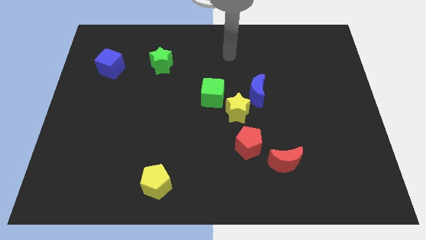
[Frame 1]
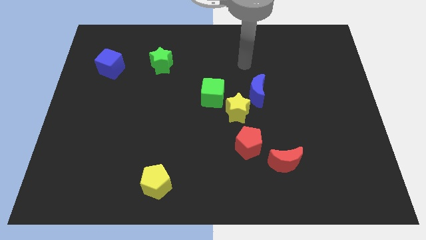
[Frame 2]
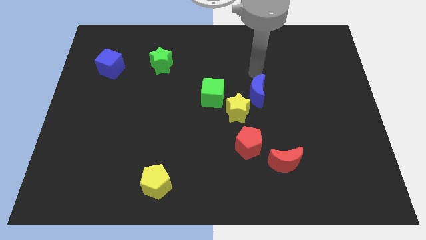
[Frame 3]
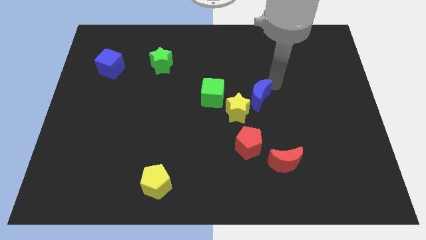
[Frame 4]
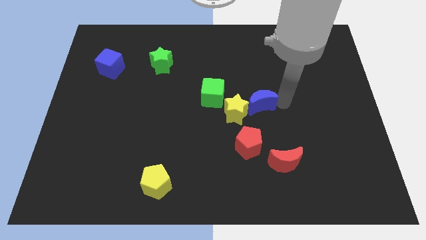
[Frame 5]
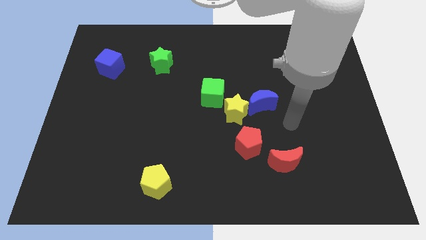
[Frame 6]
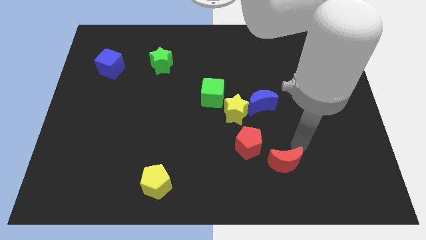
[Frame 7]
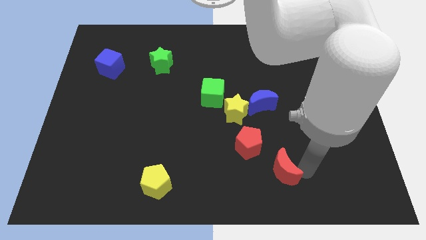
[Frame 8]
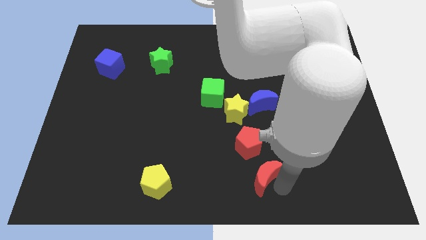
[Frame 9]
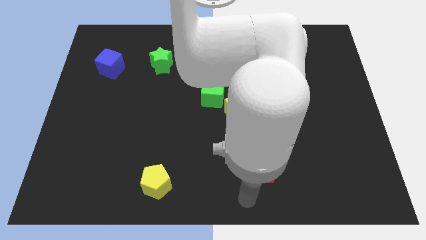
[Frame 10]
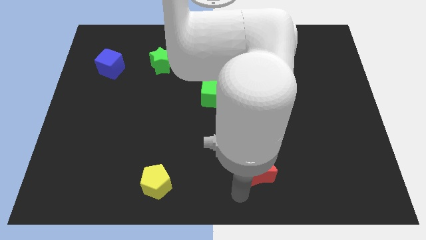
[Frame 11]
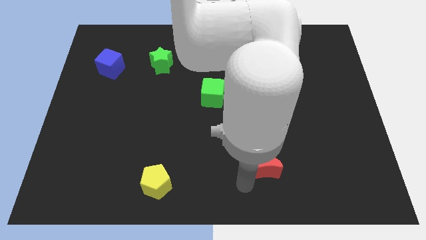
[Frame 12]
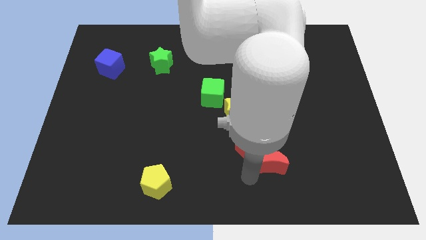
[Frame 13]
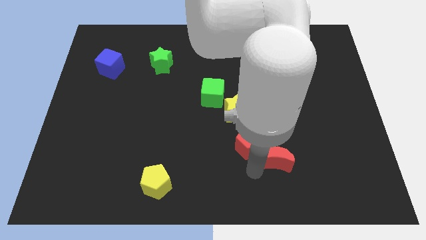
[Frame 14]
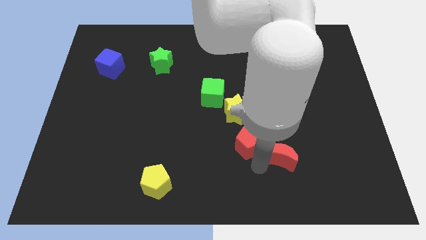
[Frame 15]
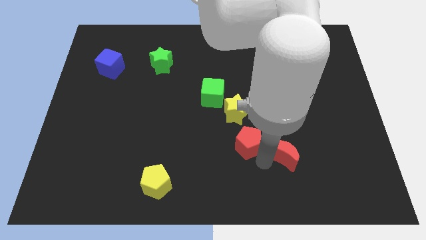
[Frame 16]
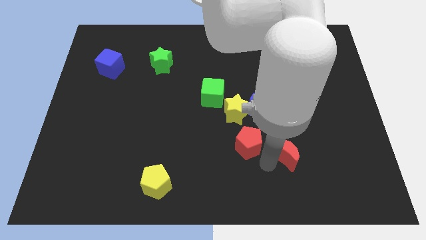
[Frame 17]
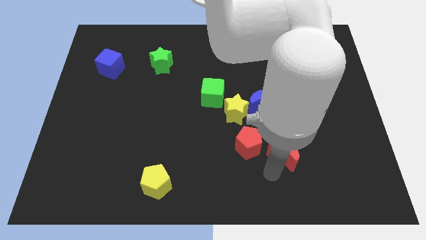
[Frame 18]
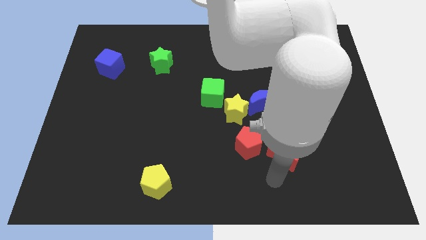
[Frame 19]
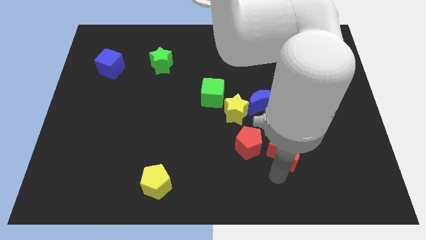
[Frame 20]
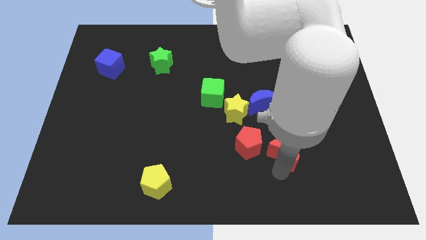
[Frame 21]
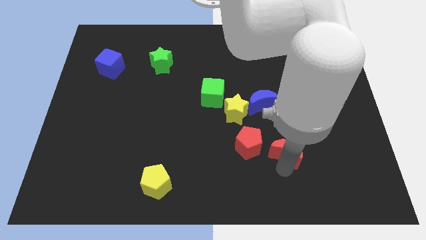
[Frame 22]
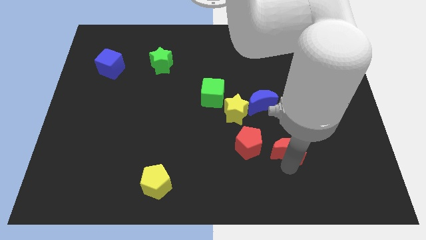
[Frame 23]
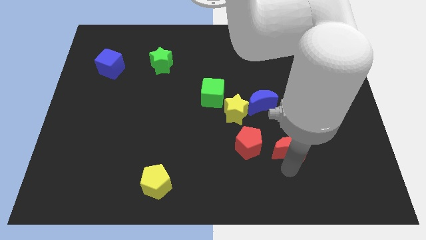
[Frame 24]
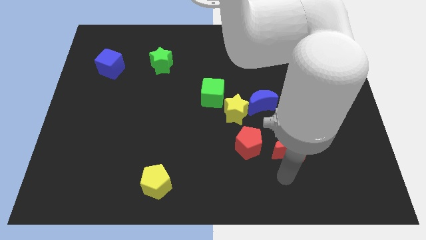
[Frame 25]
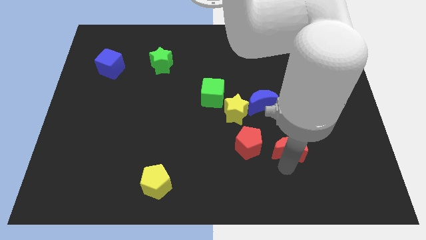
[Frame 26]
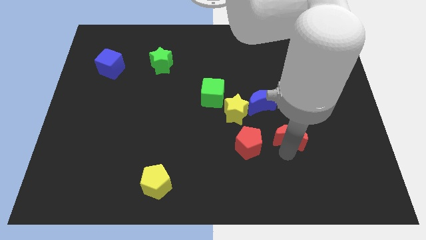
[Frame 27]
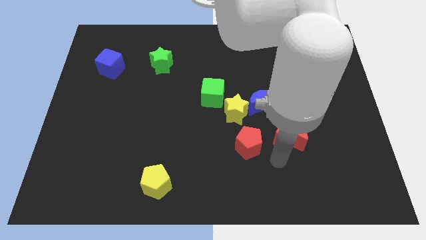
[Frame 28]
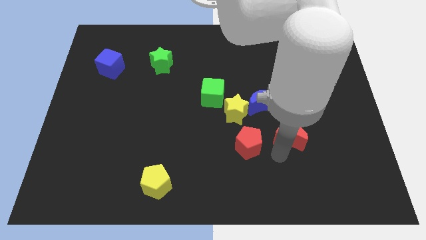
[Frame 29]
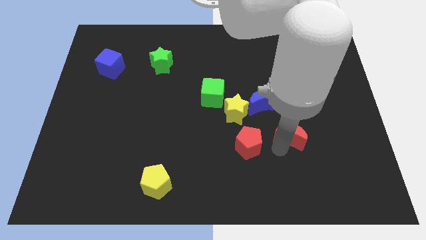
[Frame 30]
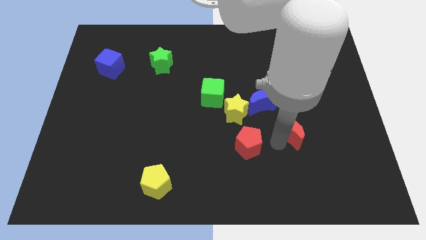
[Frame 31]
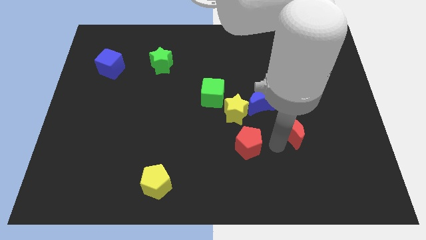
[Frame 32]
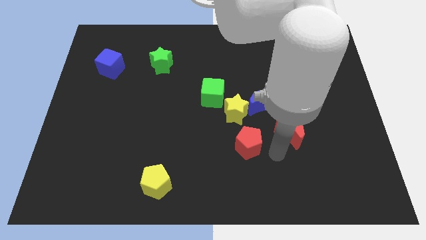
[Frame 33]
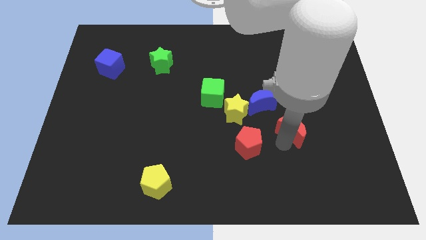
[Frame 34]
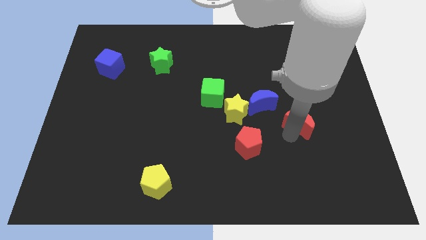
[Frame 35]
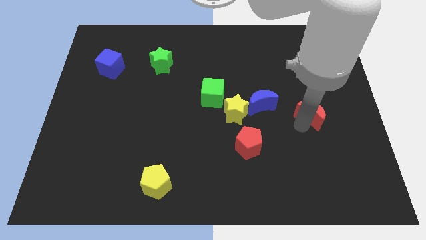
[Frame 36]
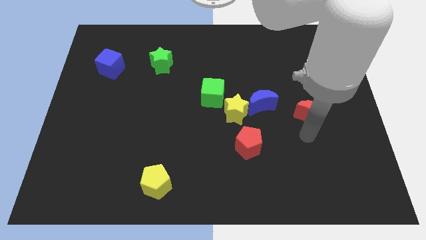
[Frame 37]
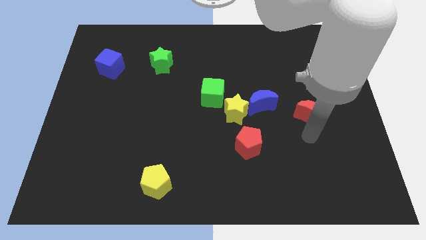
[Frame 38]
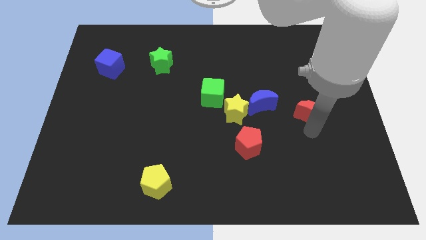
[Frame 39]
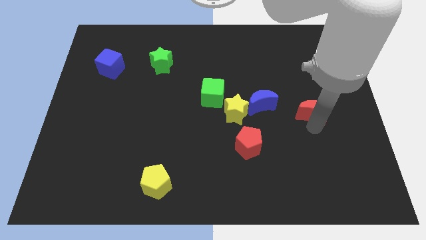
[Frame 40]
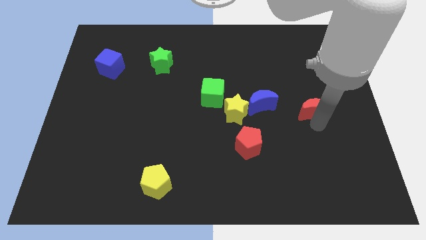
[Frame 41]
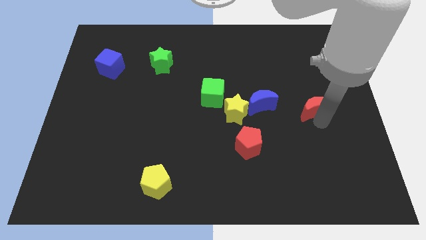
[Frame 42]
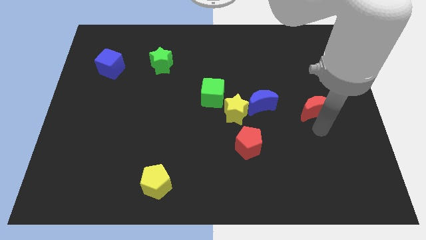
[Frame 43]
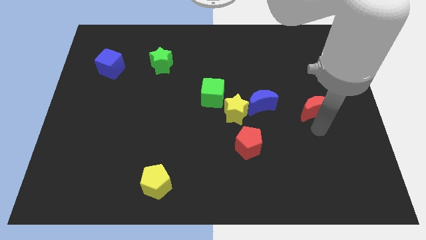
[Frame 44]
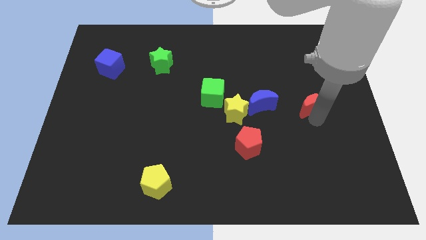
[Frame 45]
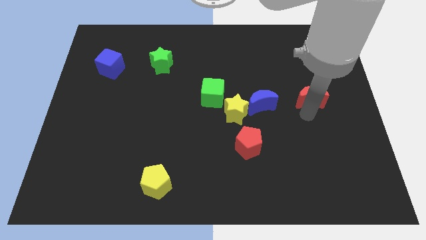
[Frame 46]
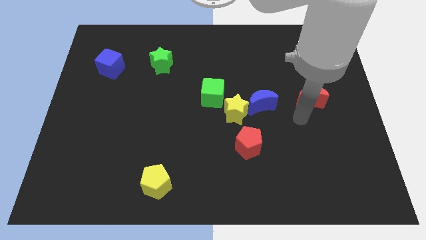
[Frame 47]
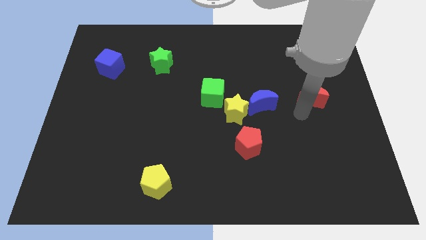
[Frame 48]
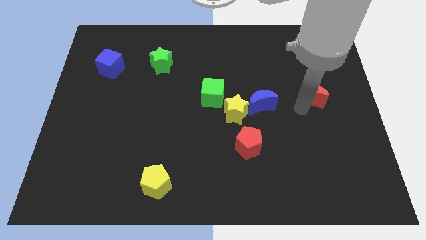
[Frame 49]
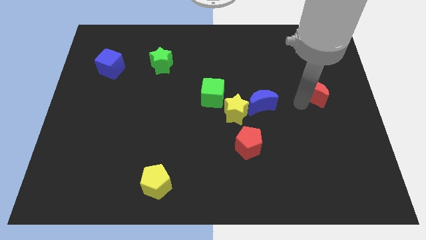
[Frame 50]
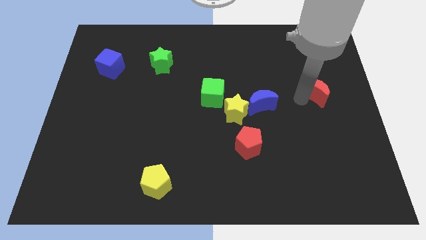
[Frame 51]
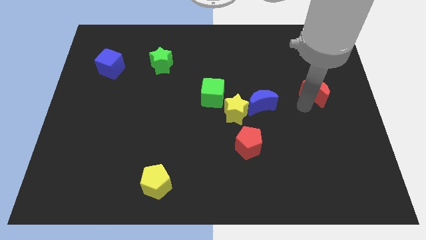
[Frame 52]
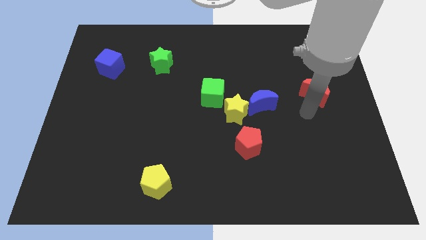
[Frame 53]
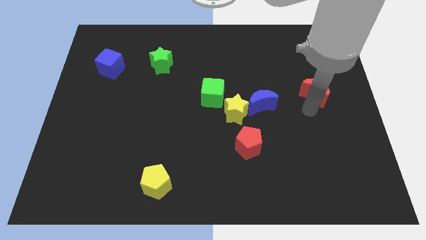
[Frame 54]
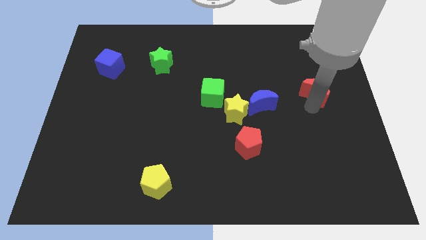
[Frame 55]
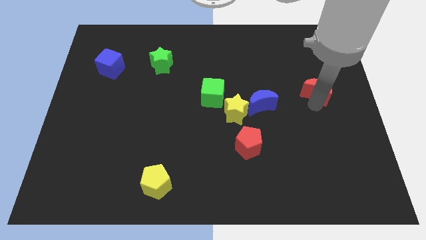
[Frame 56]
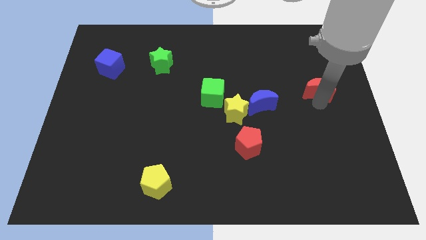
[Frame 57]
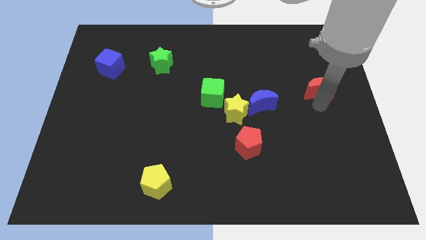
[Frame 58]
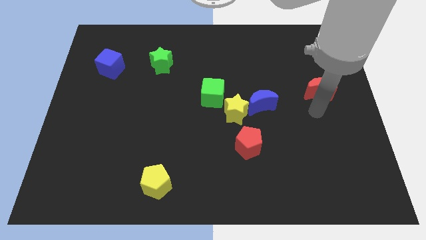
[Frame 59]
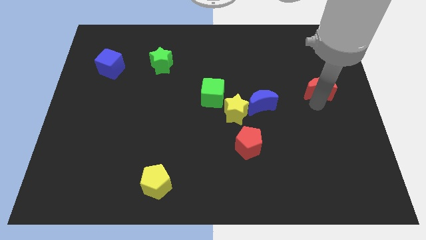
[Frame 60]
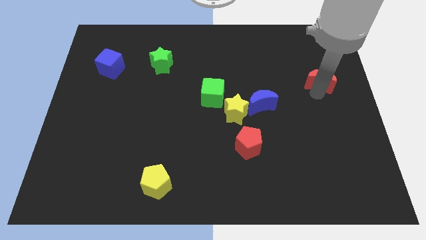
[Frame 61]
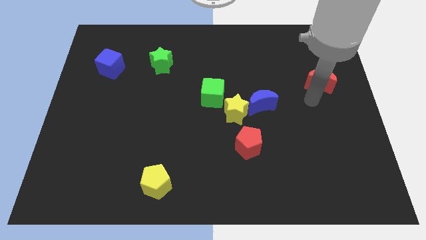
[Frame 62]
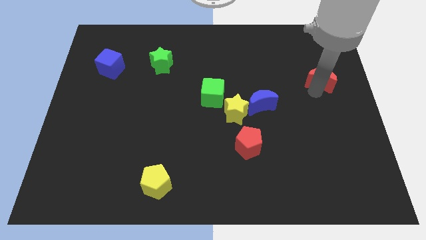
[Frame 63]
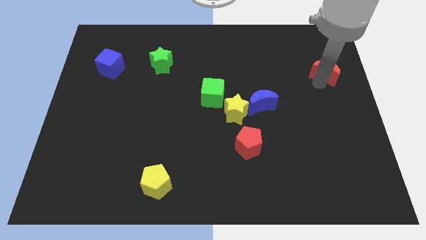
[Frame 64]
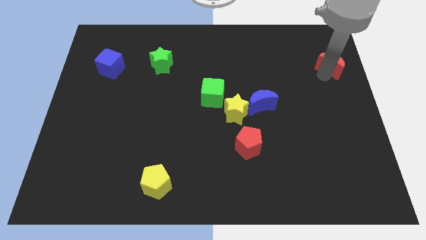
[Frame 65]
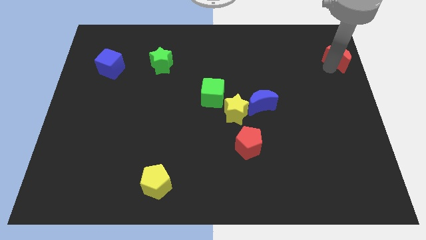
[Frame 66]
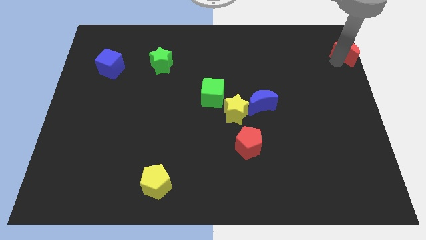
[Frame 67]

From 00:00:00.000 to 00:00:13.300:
move the red moon to the top right
